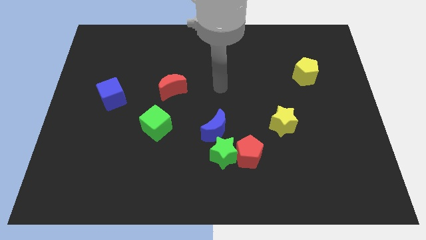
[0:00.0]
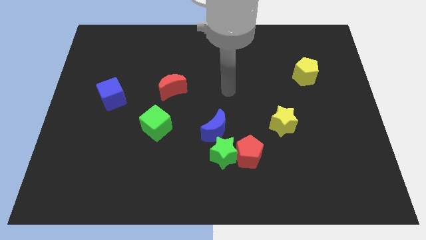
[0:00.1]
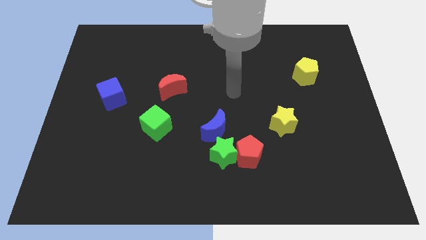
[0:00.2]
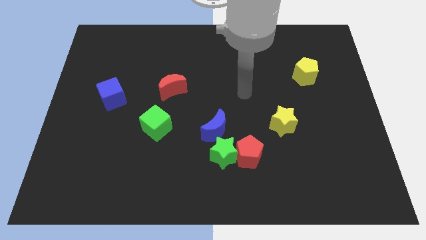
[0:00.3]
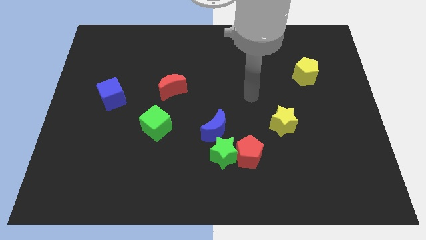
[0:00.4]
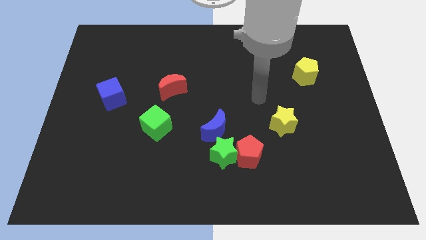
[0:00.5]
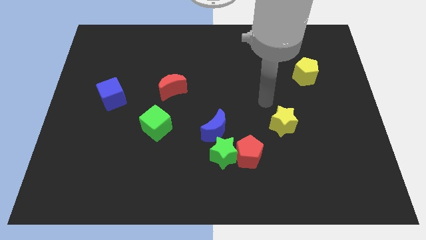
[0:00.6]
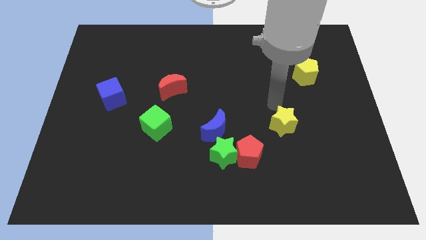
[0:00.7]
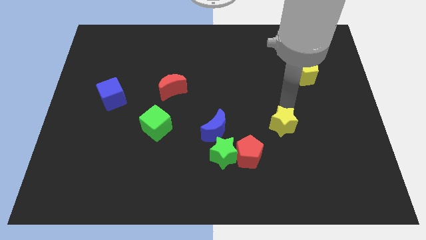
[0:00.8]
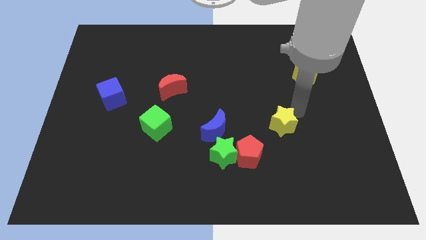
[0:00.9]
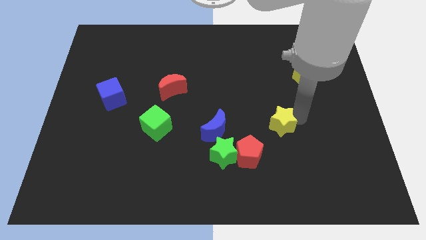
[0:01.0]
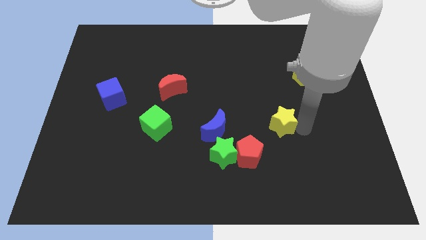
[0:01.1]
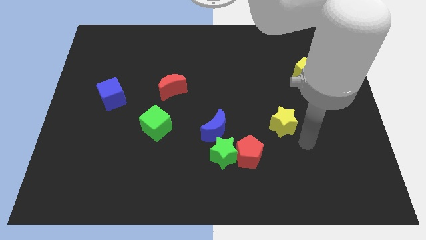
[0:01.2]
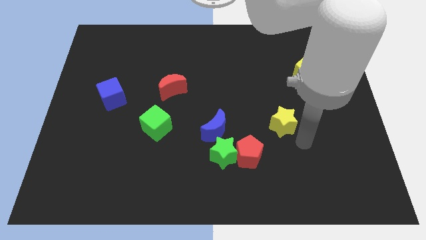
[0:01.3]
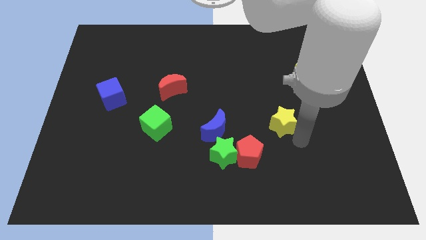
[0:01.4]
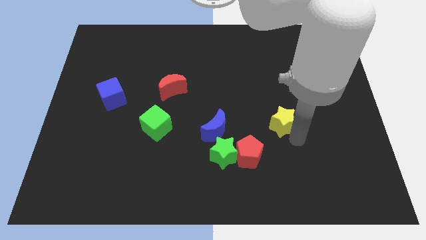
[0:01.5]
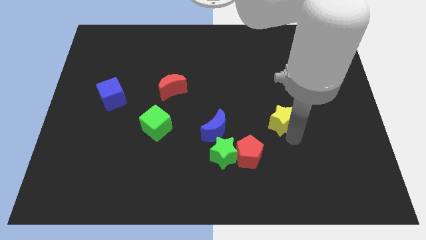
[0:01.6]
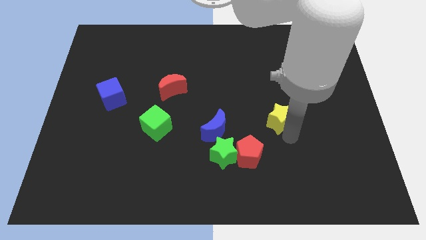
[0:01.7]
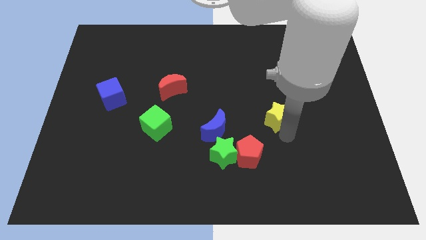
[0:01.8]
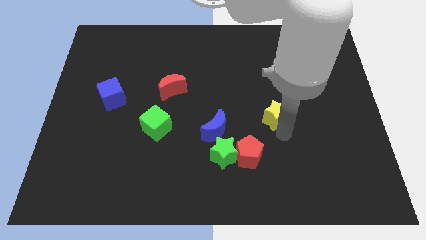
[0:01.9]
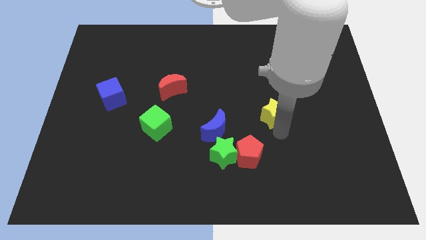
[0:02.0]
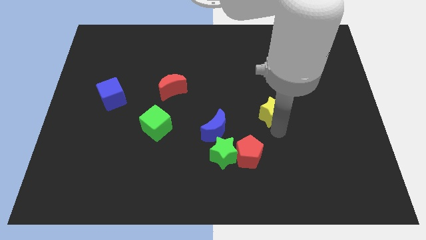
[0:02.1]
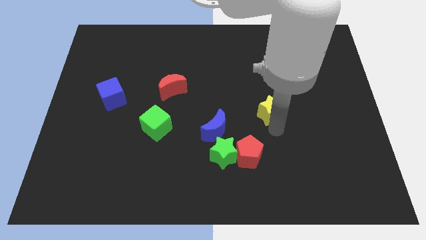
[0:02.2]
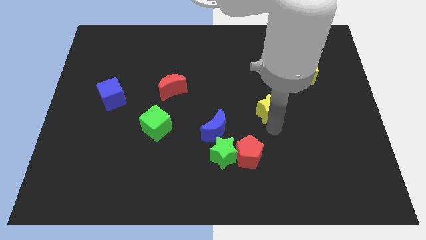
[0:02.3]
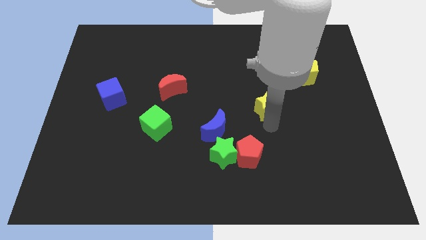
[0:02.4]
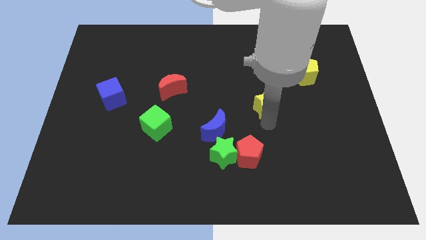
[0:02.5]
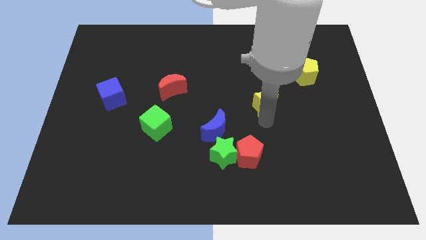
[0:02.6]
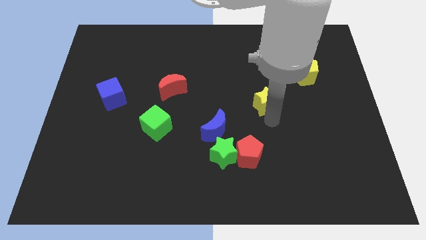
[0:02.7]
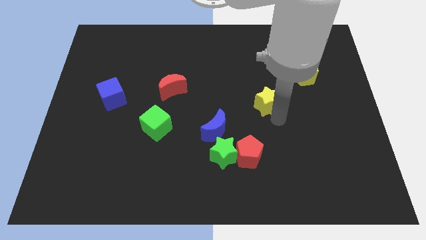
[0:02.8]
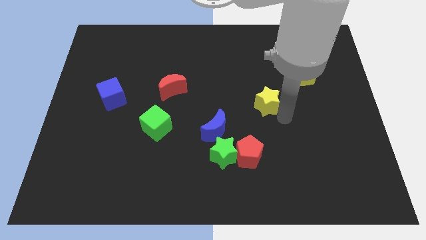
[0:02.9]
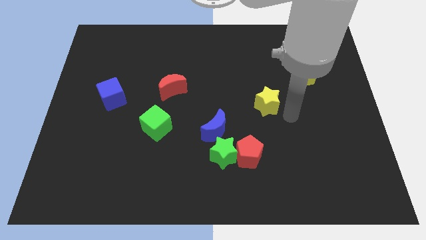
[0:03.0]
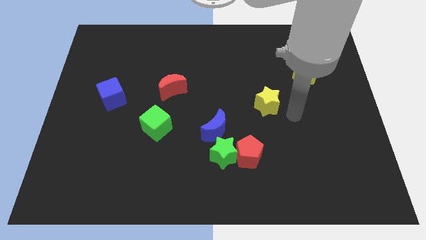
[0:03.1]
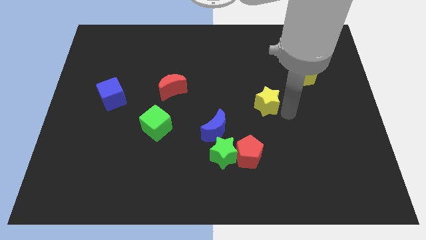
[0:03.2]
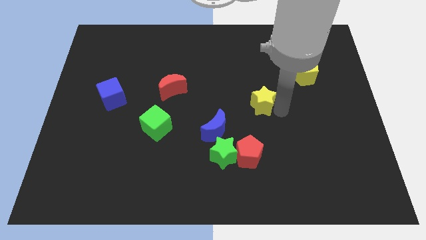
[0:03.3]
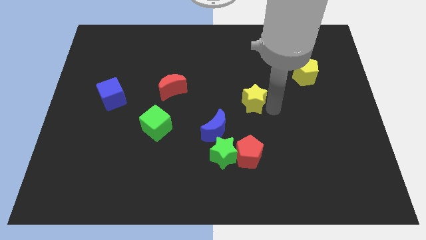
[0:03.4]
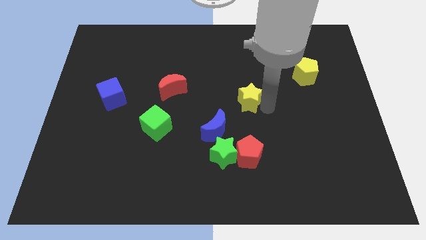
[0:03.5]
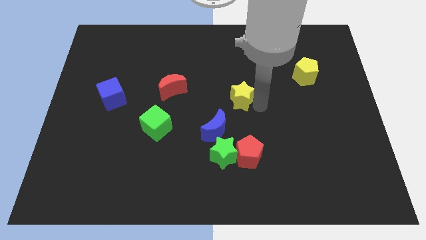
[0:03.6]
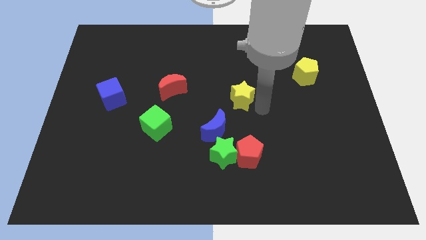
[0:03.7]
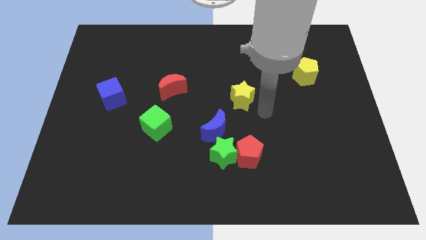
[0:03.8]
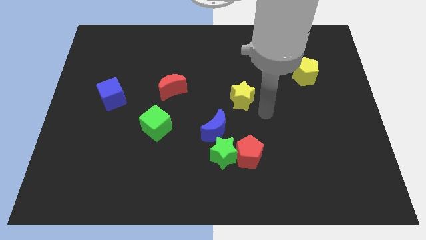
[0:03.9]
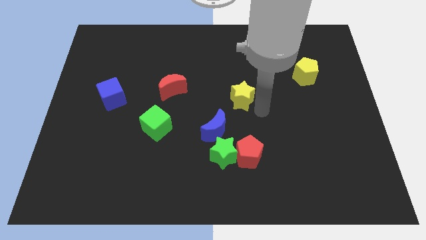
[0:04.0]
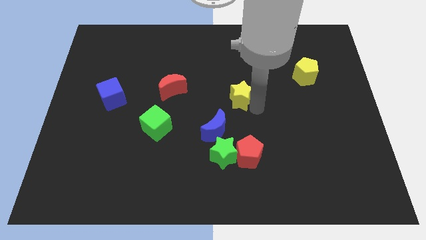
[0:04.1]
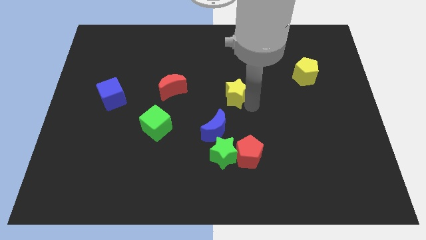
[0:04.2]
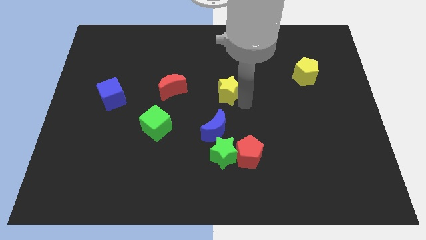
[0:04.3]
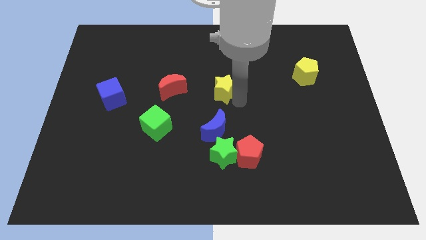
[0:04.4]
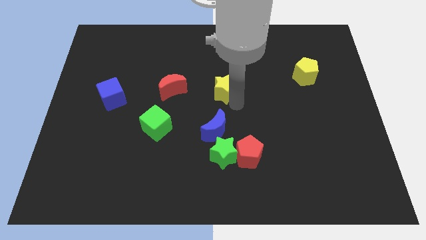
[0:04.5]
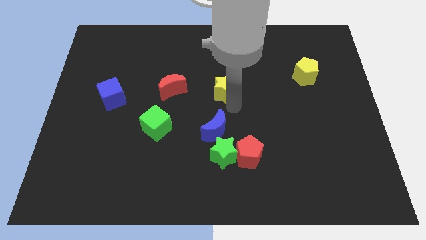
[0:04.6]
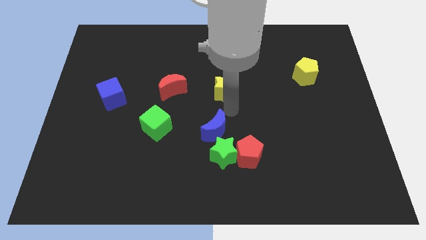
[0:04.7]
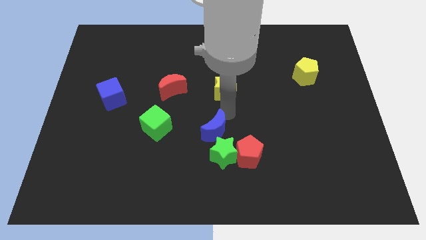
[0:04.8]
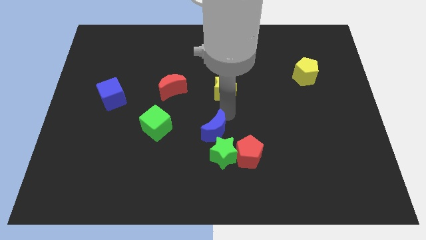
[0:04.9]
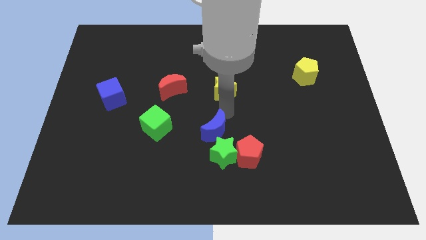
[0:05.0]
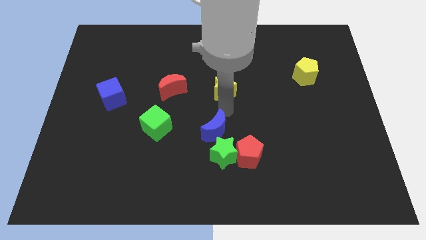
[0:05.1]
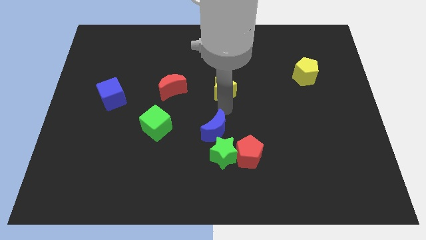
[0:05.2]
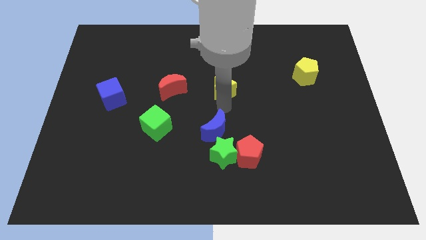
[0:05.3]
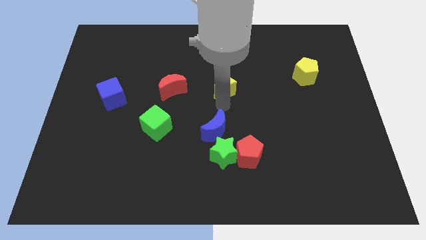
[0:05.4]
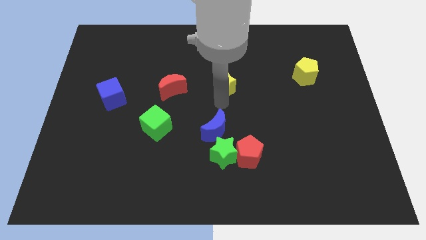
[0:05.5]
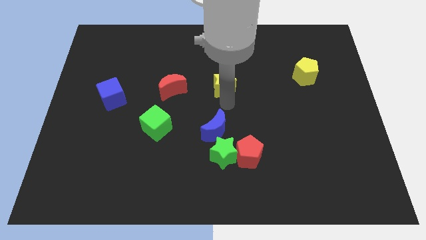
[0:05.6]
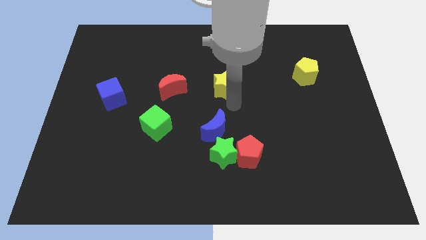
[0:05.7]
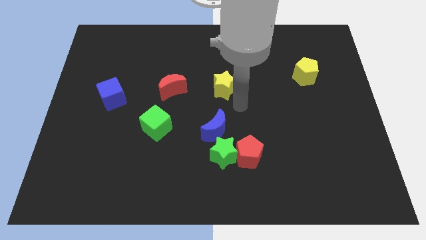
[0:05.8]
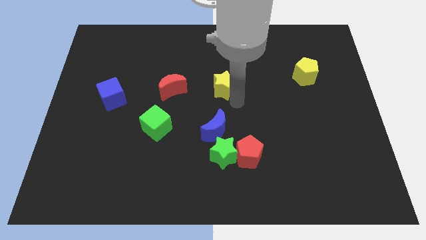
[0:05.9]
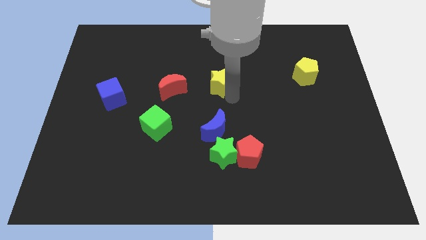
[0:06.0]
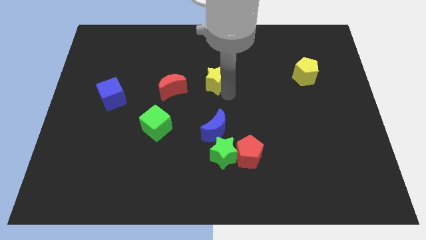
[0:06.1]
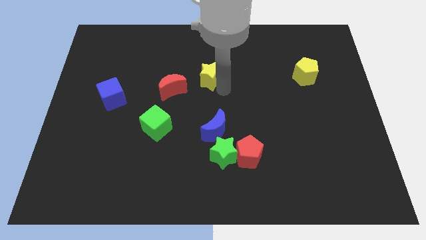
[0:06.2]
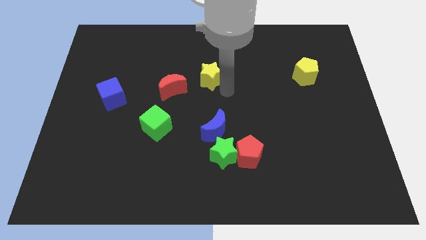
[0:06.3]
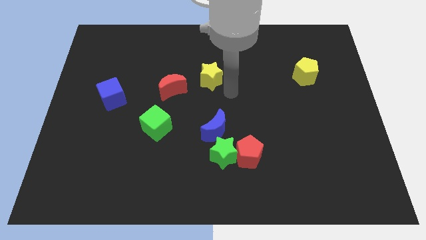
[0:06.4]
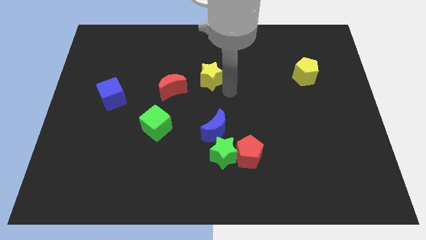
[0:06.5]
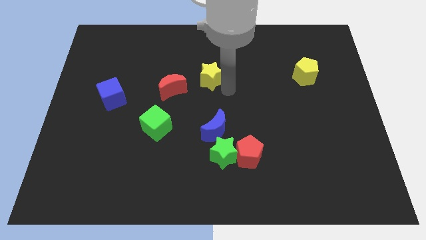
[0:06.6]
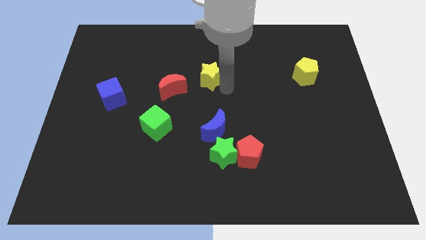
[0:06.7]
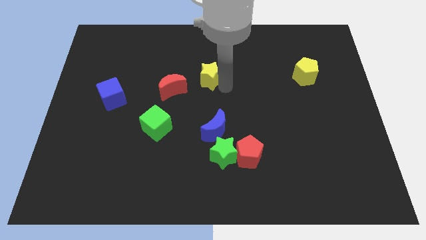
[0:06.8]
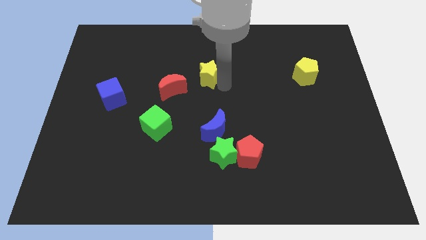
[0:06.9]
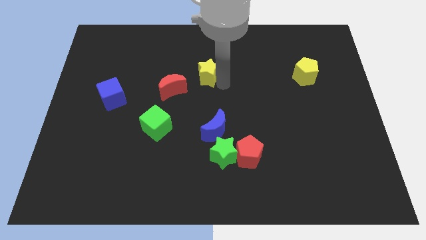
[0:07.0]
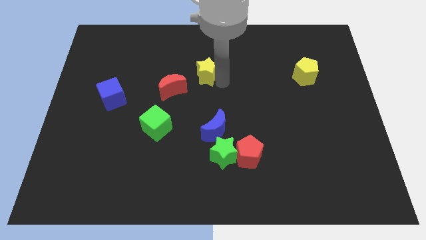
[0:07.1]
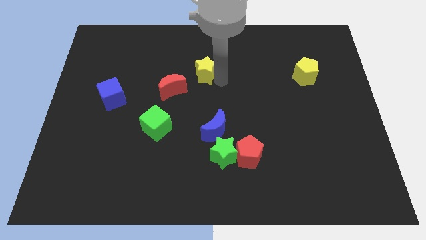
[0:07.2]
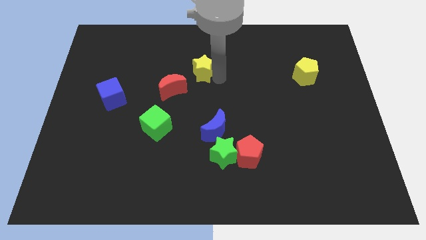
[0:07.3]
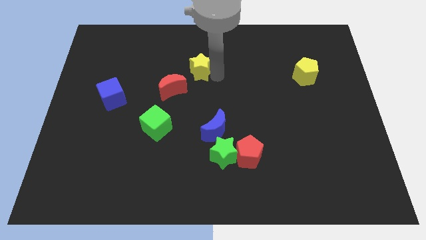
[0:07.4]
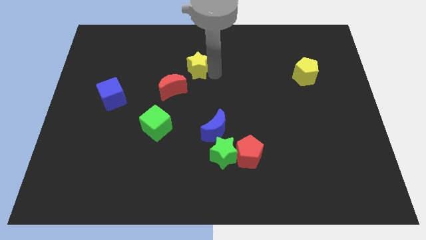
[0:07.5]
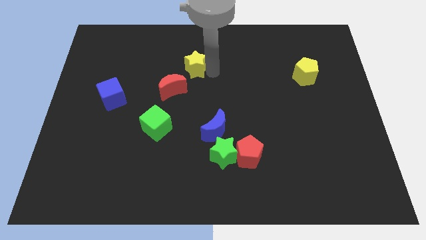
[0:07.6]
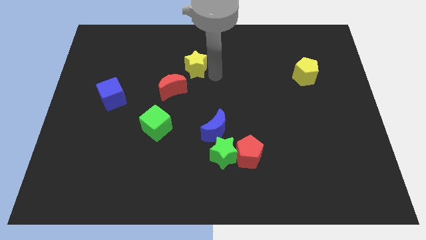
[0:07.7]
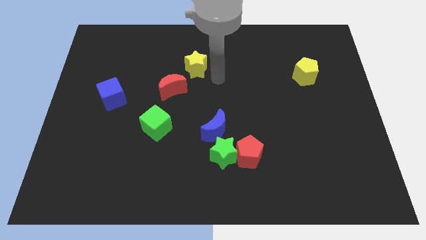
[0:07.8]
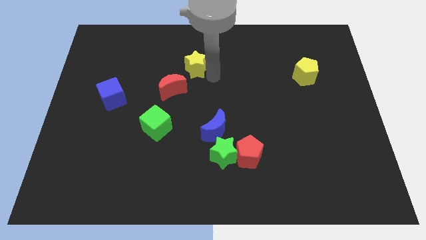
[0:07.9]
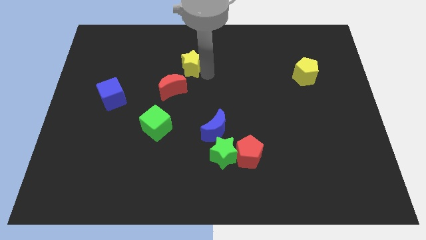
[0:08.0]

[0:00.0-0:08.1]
put the yellow star to the top side of the red moon
